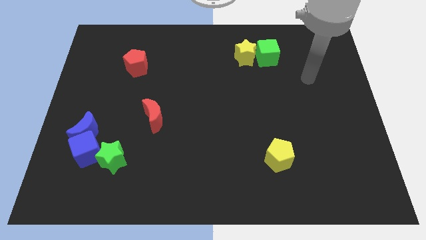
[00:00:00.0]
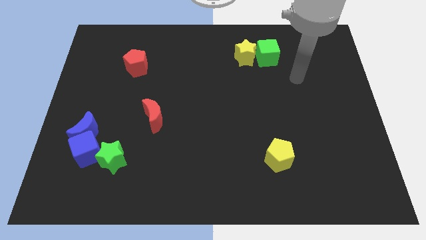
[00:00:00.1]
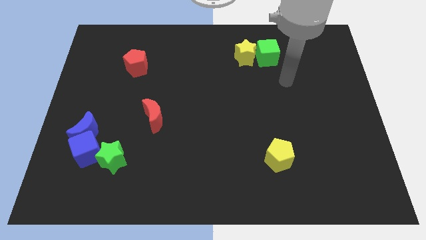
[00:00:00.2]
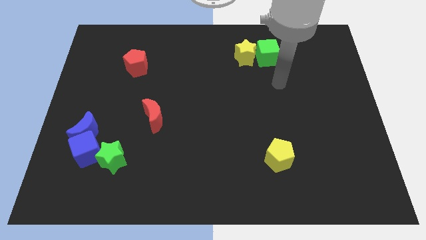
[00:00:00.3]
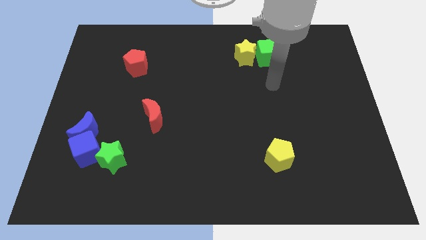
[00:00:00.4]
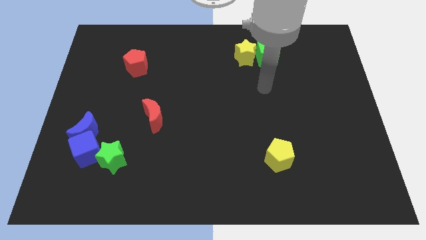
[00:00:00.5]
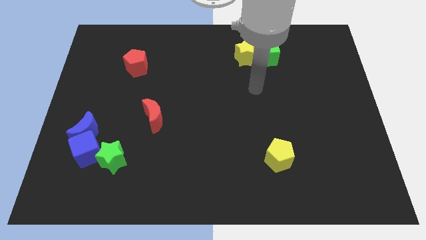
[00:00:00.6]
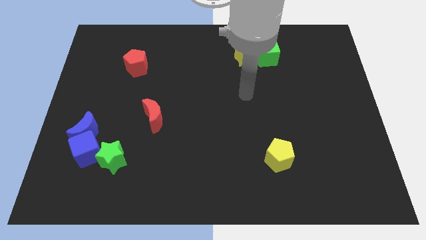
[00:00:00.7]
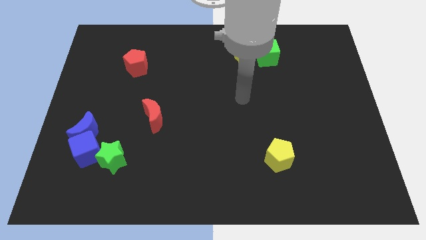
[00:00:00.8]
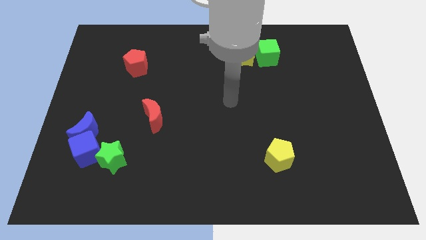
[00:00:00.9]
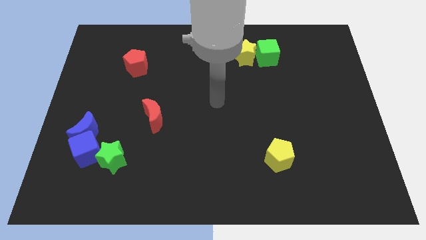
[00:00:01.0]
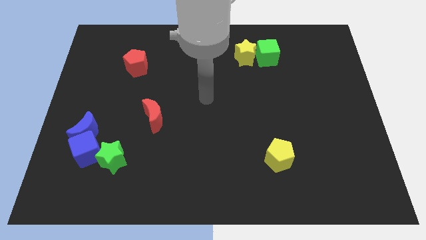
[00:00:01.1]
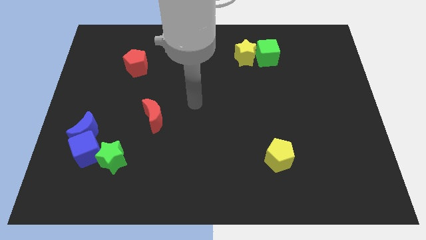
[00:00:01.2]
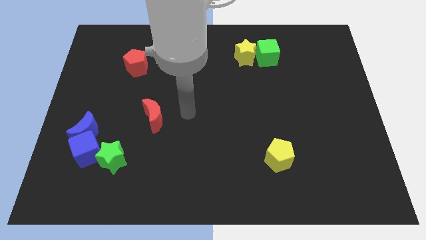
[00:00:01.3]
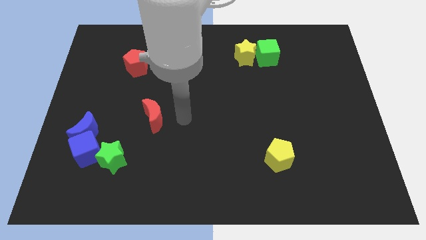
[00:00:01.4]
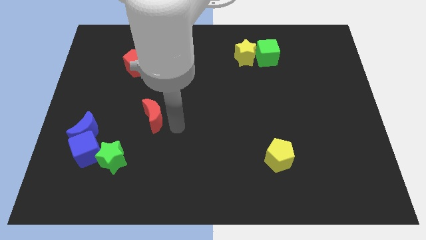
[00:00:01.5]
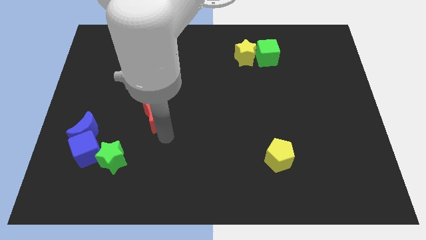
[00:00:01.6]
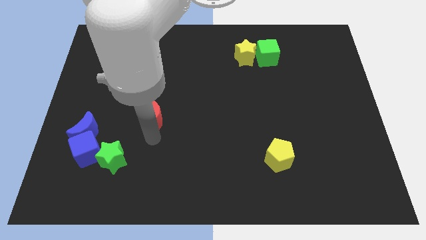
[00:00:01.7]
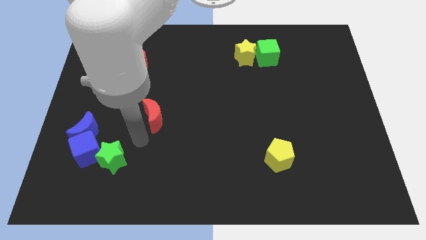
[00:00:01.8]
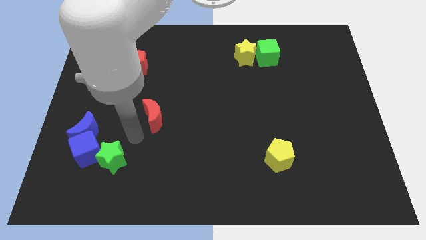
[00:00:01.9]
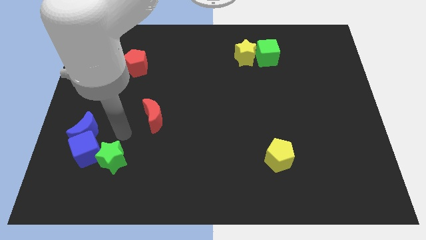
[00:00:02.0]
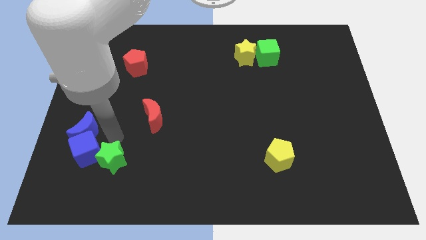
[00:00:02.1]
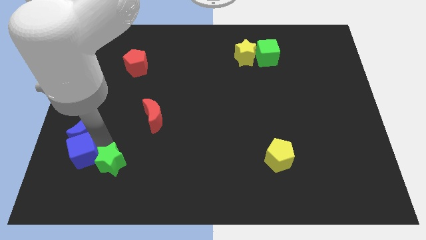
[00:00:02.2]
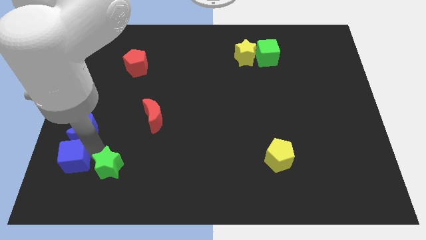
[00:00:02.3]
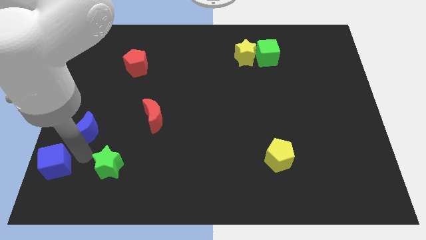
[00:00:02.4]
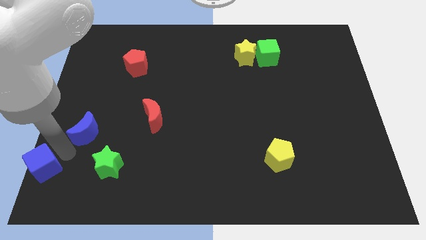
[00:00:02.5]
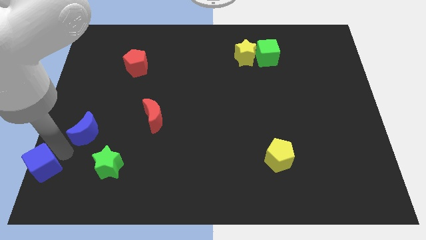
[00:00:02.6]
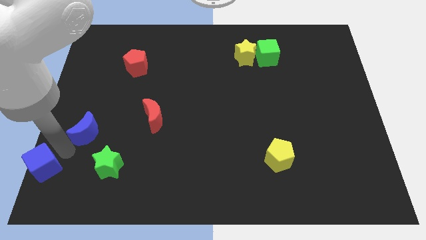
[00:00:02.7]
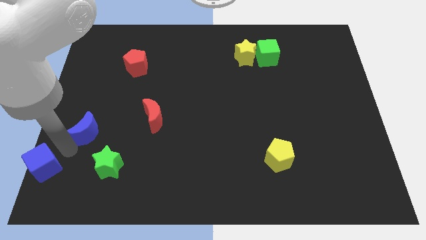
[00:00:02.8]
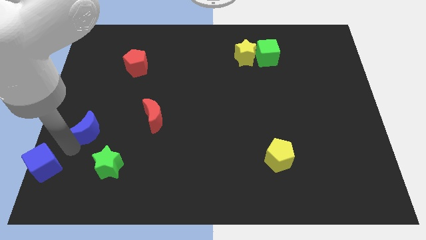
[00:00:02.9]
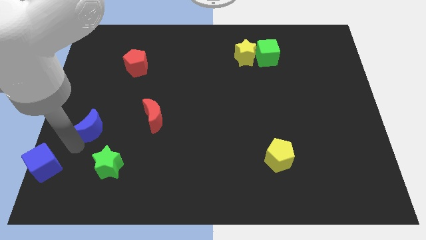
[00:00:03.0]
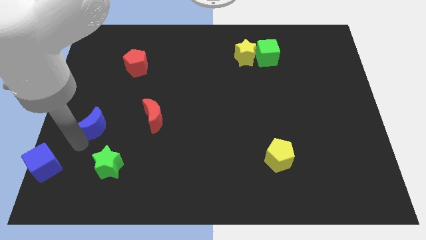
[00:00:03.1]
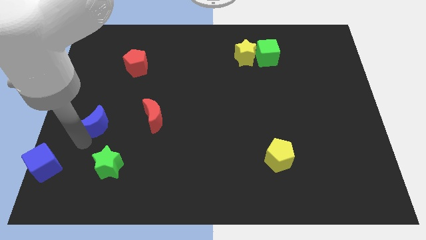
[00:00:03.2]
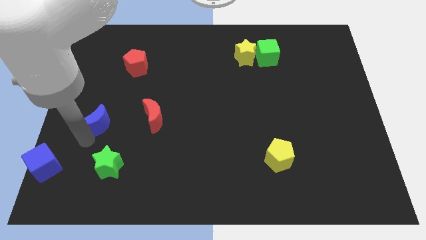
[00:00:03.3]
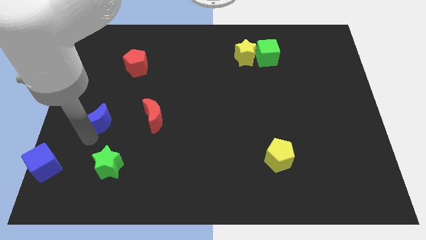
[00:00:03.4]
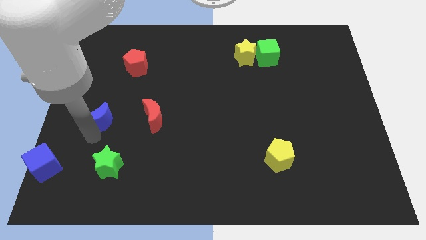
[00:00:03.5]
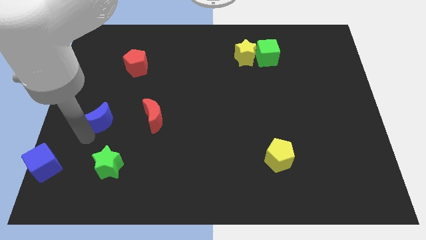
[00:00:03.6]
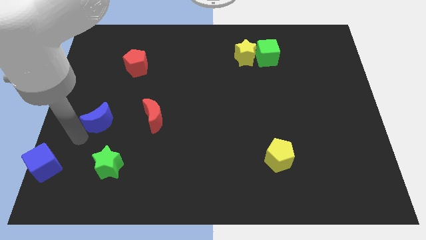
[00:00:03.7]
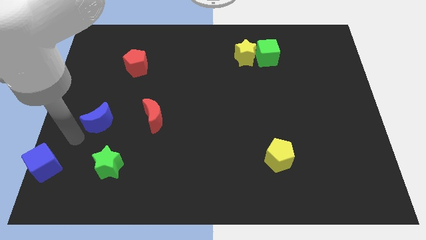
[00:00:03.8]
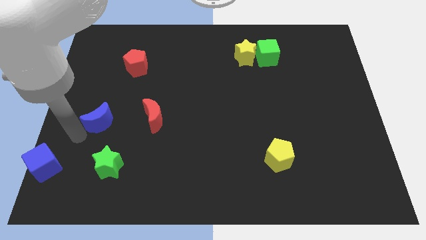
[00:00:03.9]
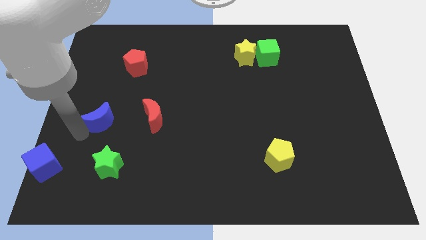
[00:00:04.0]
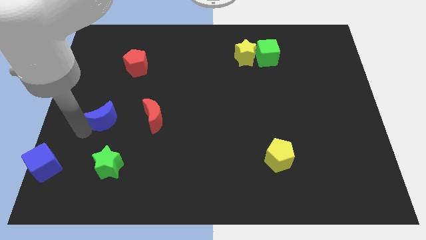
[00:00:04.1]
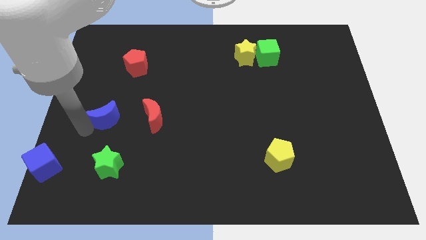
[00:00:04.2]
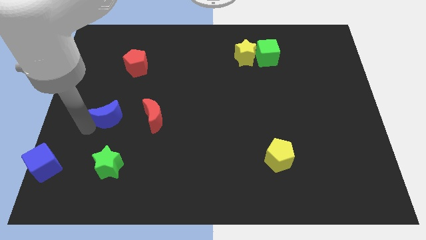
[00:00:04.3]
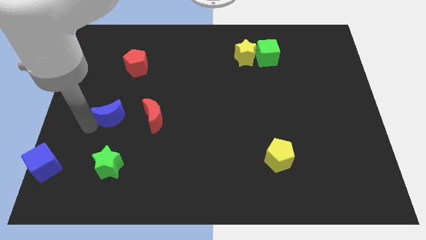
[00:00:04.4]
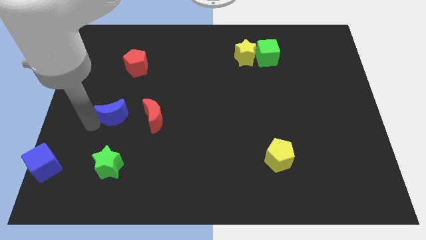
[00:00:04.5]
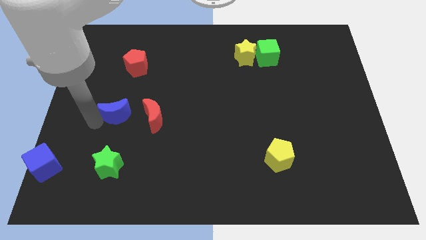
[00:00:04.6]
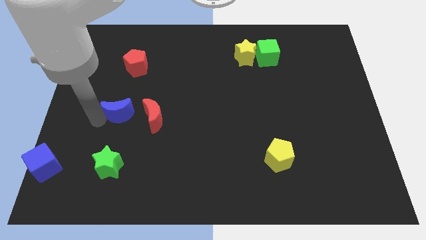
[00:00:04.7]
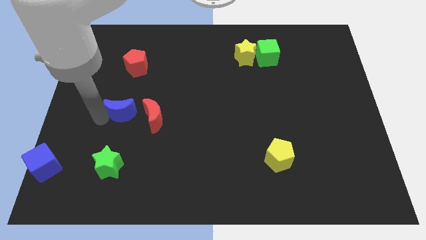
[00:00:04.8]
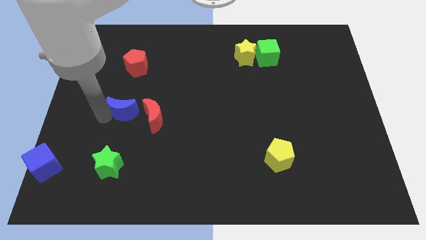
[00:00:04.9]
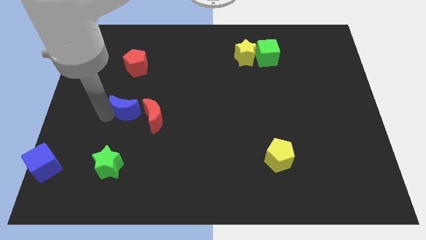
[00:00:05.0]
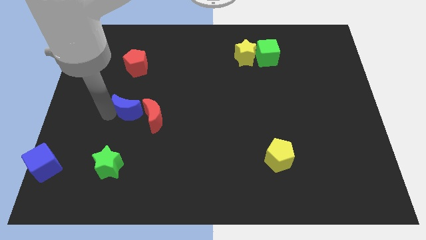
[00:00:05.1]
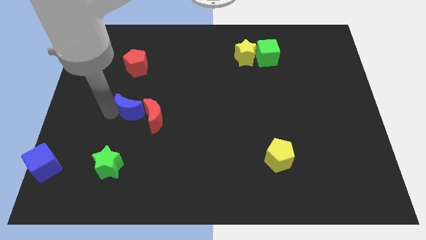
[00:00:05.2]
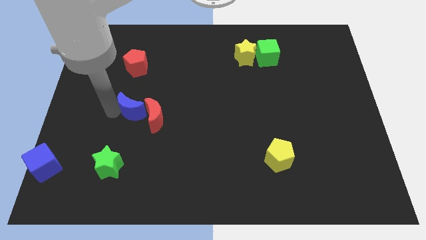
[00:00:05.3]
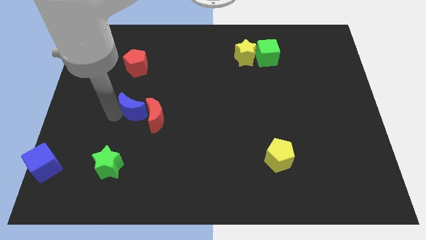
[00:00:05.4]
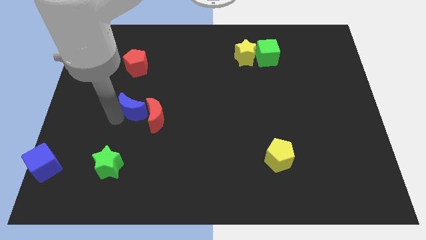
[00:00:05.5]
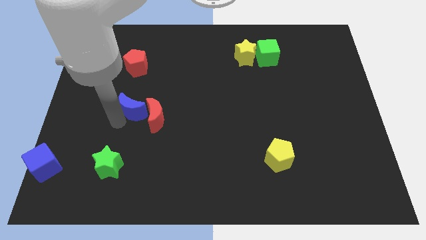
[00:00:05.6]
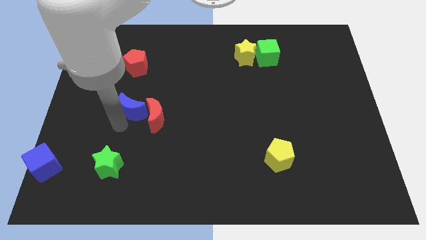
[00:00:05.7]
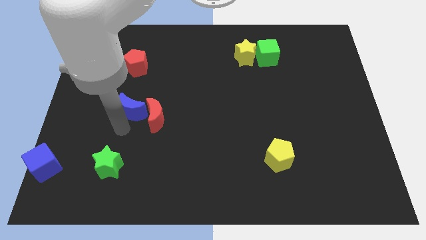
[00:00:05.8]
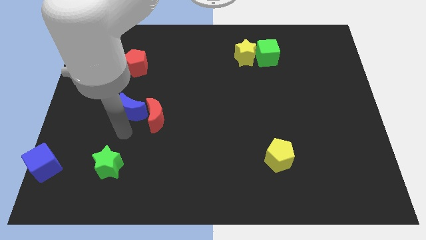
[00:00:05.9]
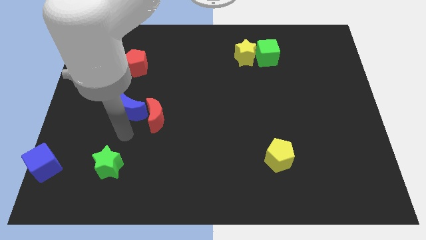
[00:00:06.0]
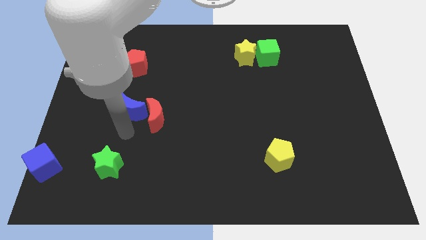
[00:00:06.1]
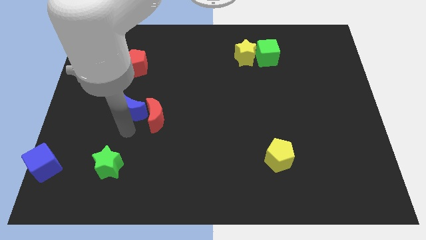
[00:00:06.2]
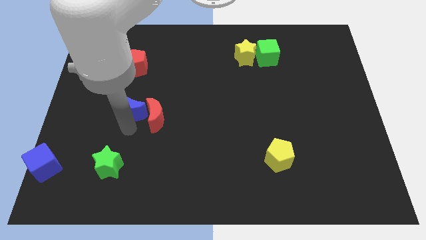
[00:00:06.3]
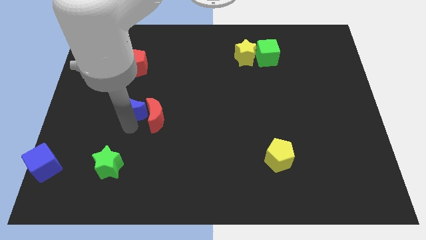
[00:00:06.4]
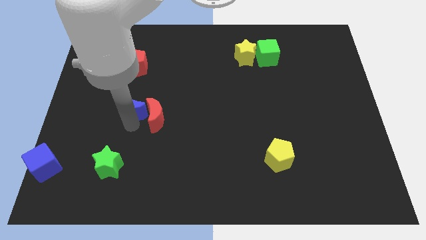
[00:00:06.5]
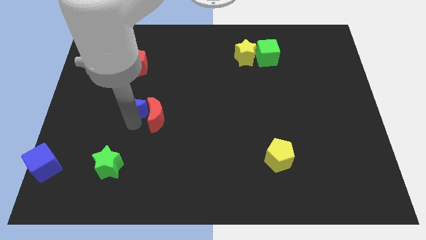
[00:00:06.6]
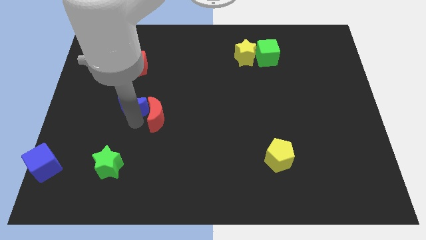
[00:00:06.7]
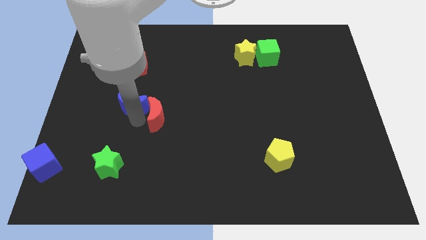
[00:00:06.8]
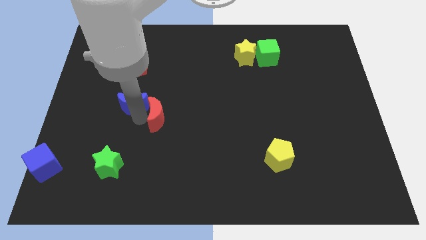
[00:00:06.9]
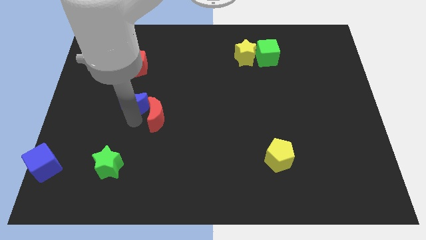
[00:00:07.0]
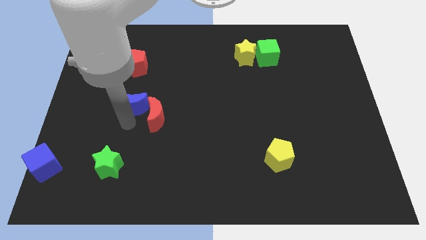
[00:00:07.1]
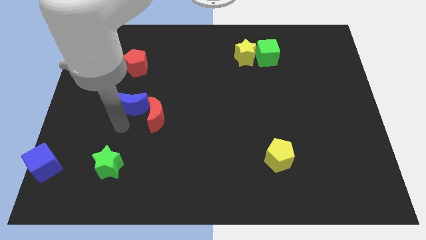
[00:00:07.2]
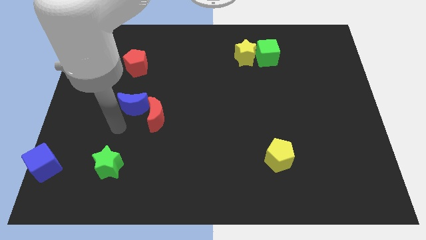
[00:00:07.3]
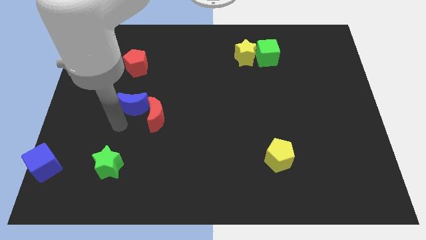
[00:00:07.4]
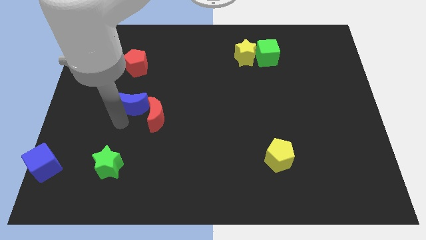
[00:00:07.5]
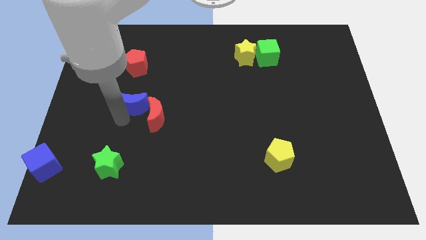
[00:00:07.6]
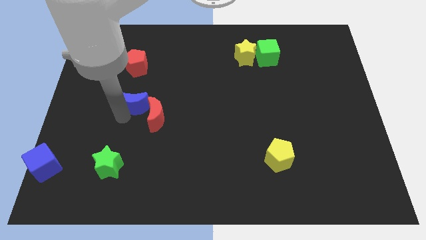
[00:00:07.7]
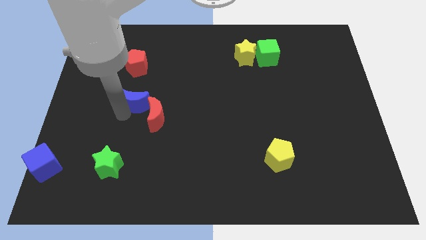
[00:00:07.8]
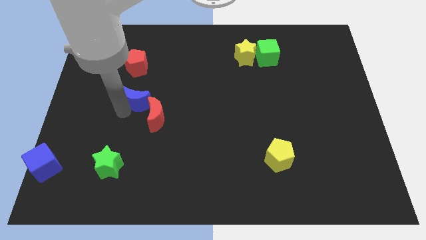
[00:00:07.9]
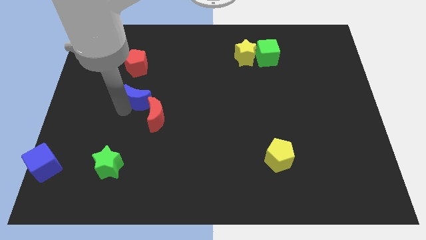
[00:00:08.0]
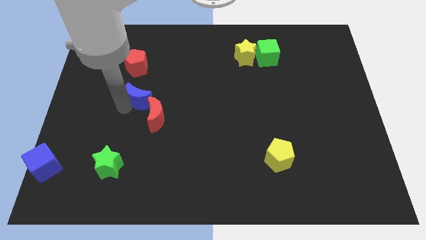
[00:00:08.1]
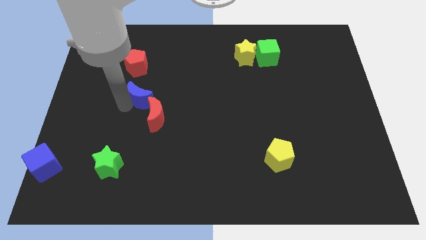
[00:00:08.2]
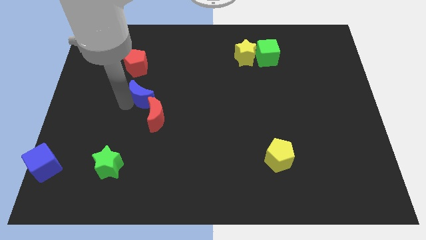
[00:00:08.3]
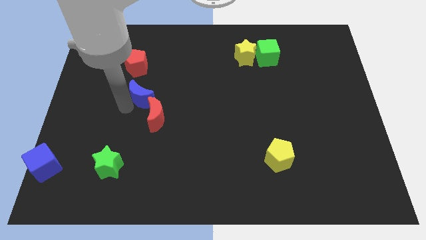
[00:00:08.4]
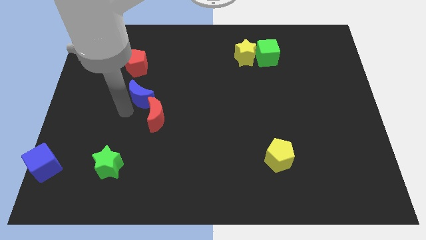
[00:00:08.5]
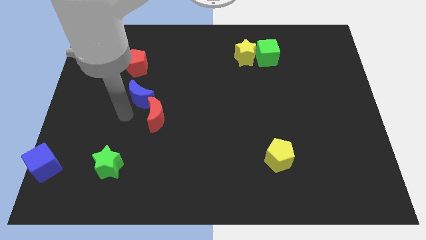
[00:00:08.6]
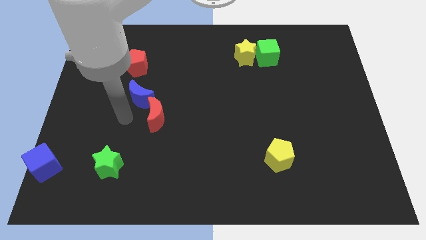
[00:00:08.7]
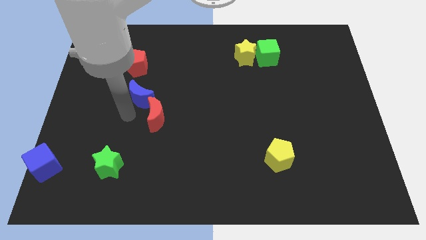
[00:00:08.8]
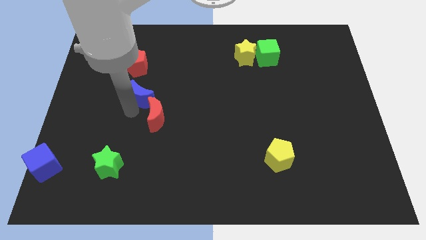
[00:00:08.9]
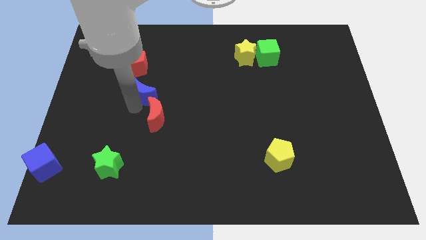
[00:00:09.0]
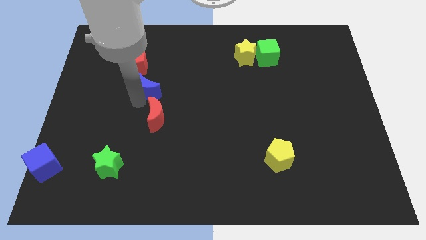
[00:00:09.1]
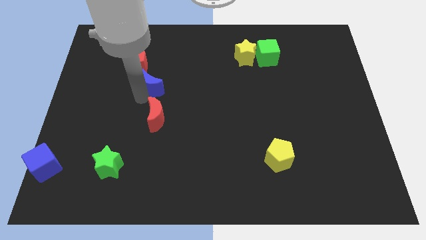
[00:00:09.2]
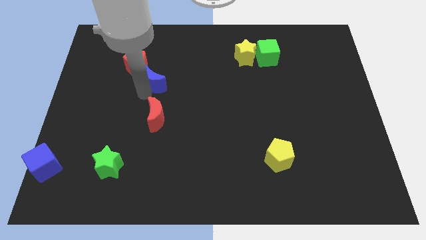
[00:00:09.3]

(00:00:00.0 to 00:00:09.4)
move the blue moon up and right
